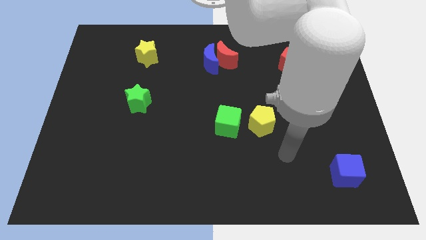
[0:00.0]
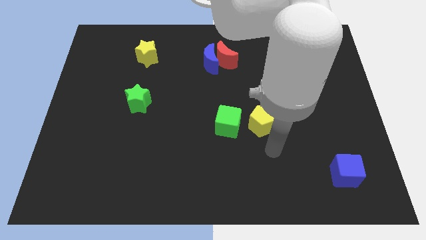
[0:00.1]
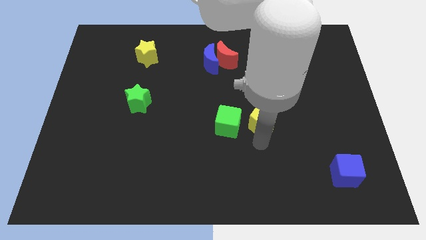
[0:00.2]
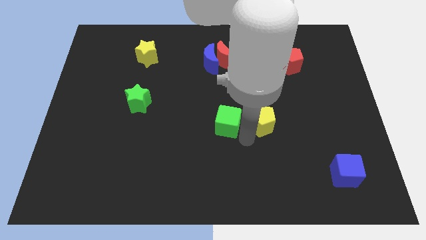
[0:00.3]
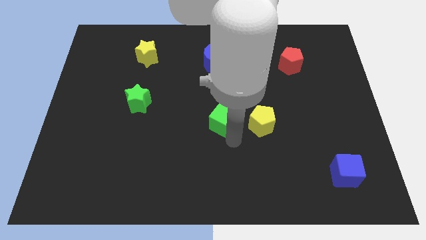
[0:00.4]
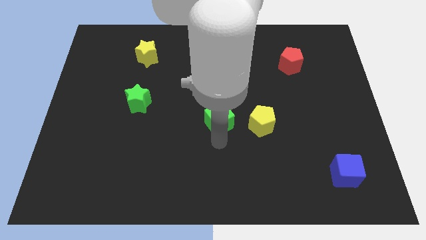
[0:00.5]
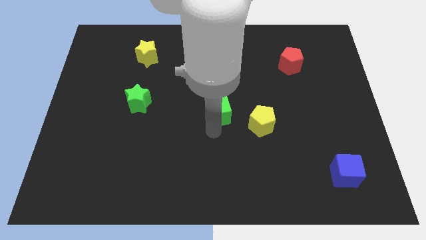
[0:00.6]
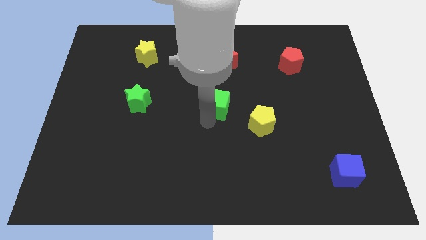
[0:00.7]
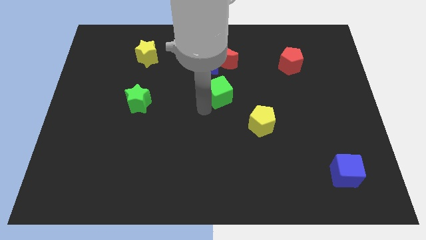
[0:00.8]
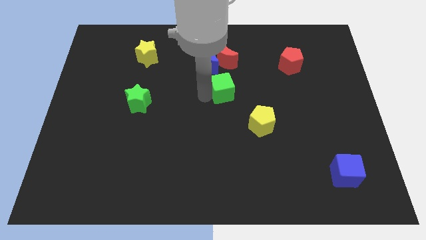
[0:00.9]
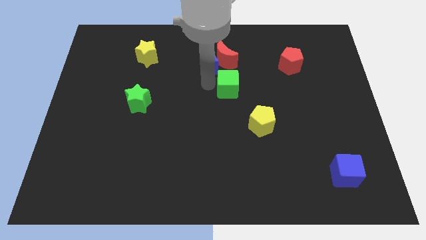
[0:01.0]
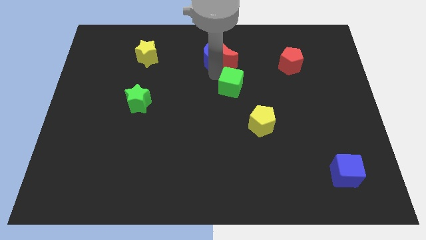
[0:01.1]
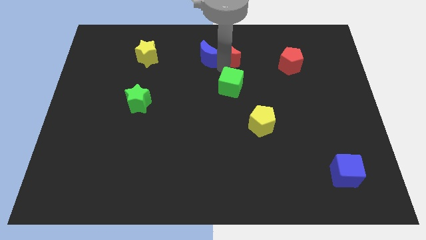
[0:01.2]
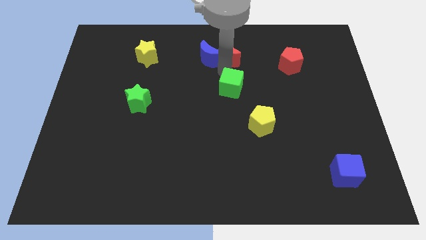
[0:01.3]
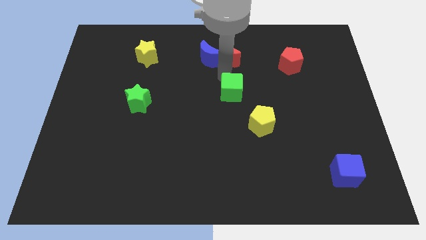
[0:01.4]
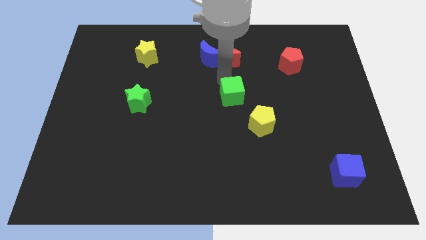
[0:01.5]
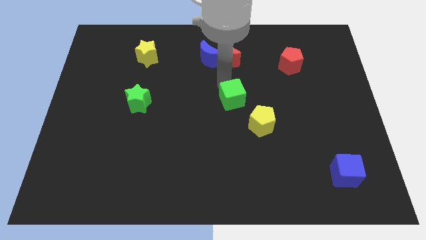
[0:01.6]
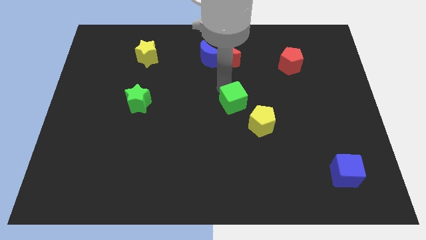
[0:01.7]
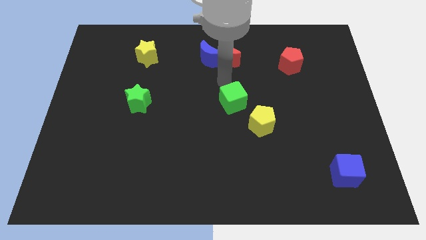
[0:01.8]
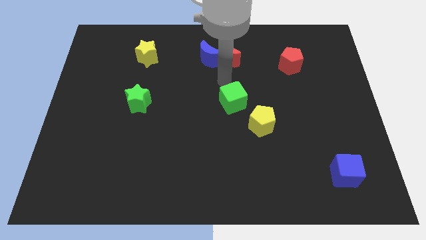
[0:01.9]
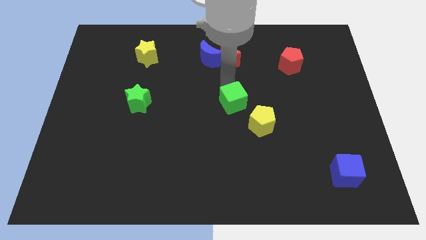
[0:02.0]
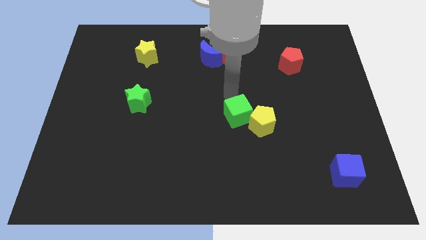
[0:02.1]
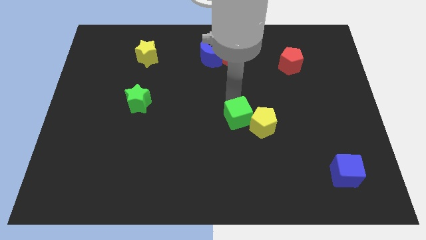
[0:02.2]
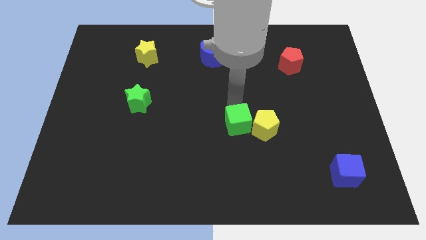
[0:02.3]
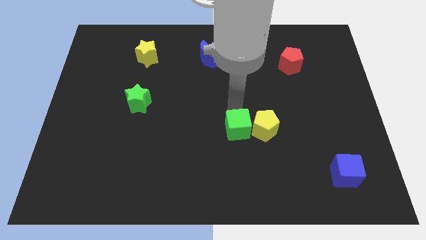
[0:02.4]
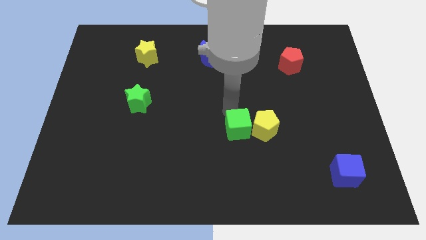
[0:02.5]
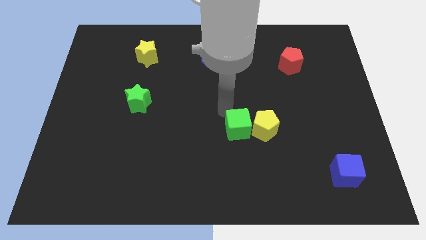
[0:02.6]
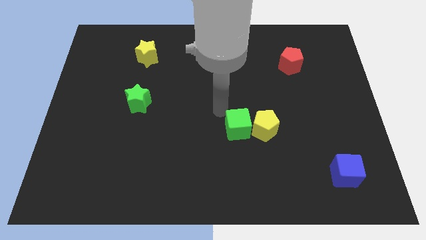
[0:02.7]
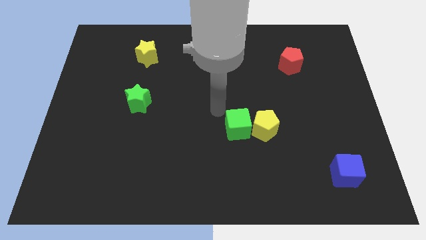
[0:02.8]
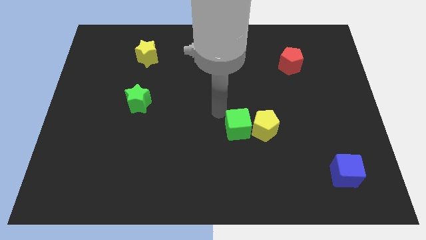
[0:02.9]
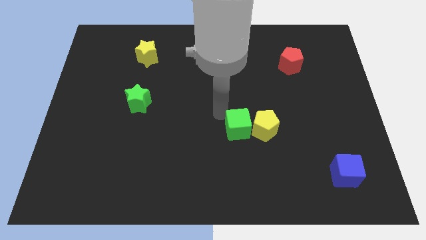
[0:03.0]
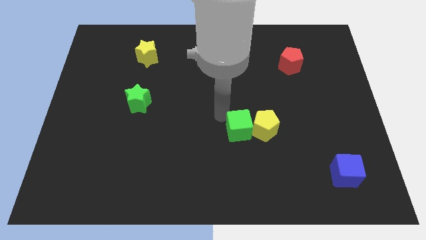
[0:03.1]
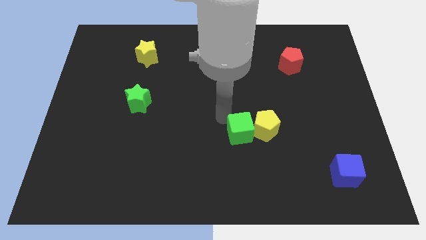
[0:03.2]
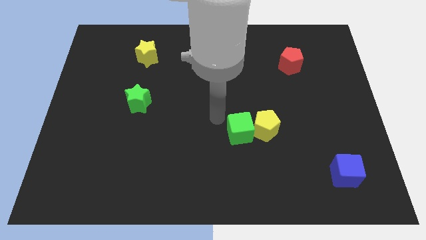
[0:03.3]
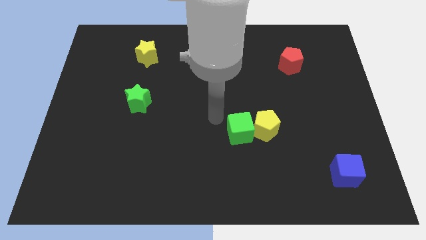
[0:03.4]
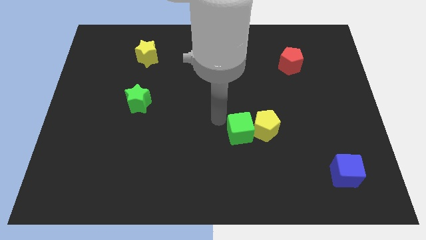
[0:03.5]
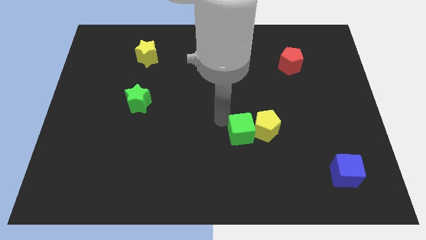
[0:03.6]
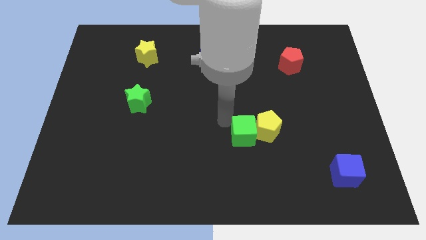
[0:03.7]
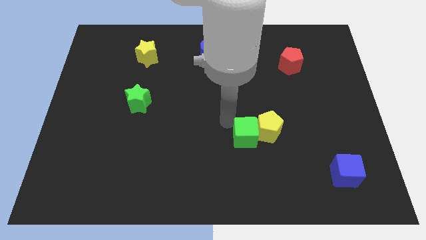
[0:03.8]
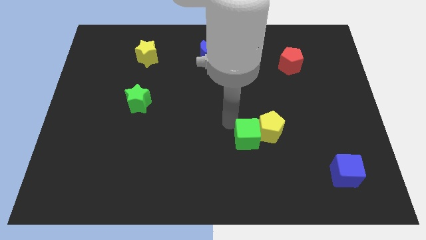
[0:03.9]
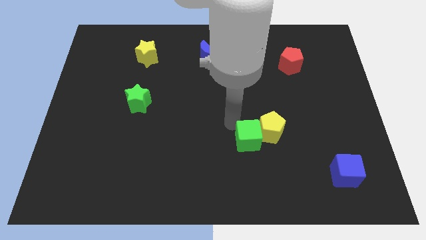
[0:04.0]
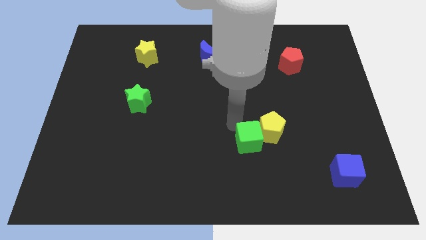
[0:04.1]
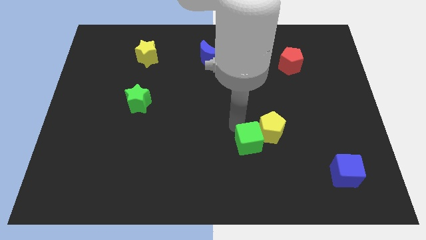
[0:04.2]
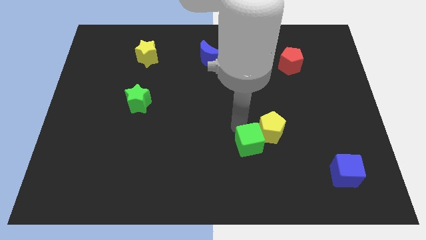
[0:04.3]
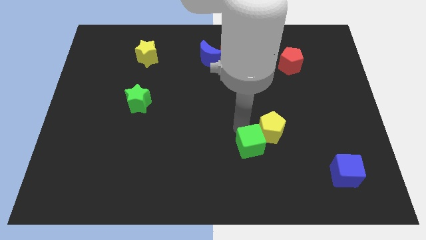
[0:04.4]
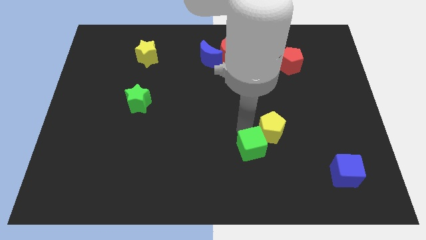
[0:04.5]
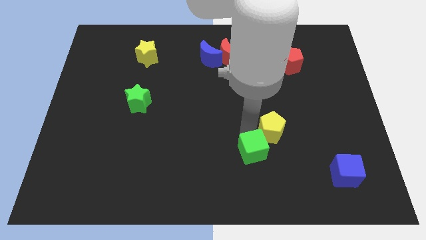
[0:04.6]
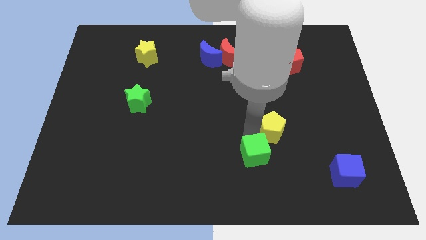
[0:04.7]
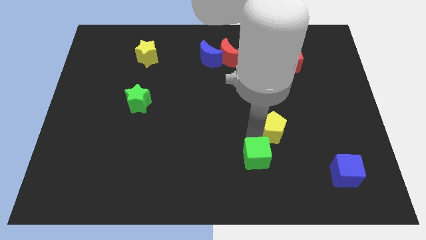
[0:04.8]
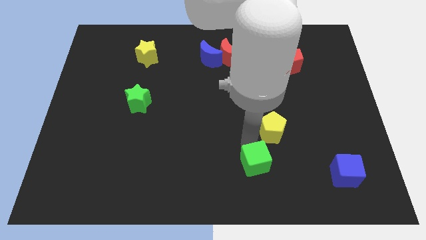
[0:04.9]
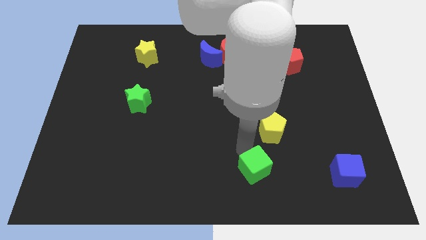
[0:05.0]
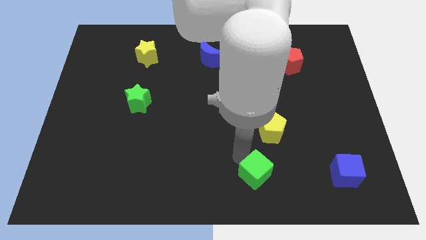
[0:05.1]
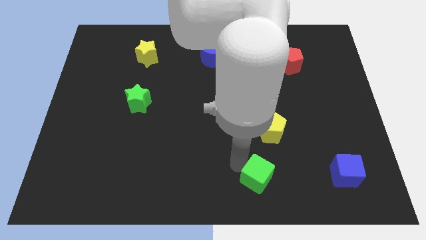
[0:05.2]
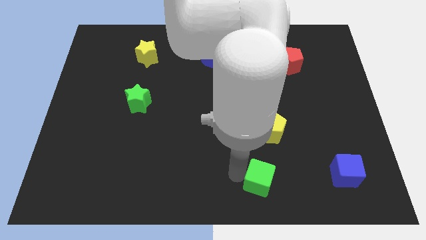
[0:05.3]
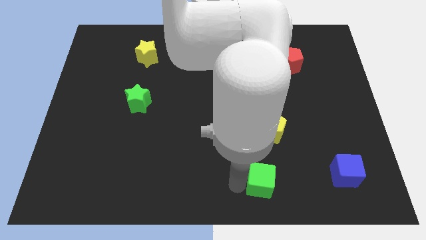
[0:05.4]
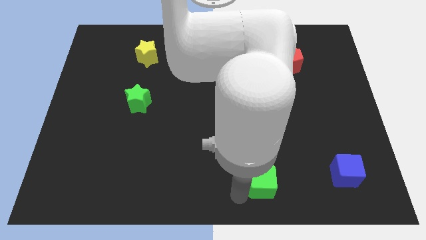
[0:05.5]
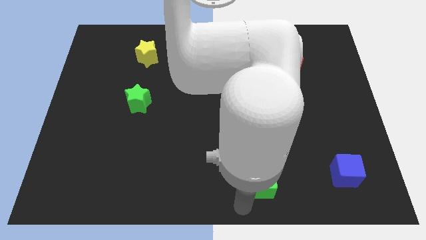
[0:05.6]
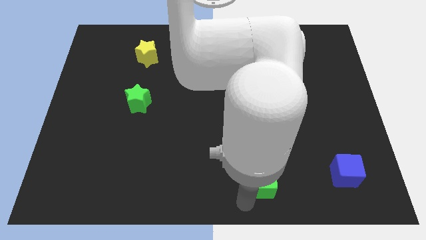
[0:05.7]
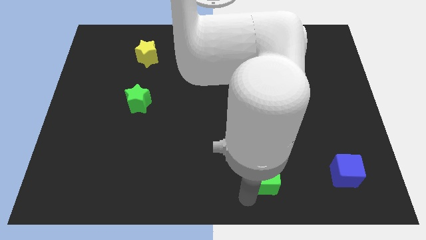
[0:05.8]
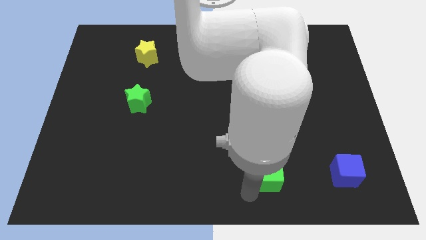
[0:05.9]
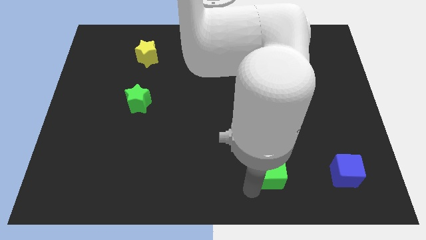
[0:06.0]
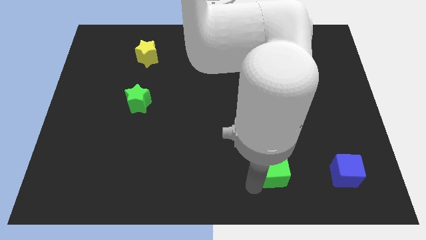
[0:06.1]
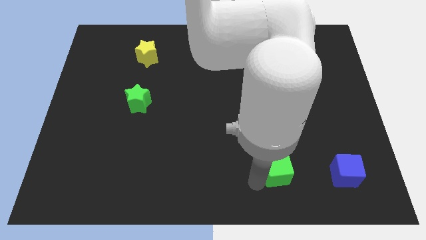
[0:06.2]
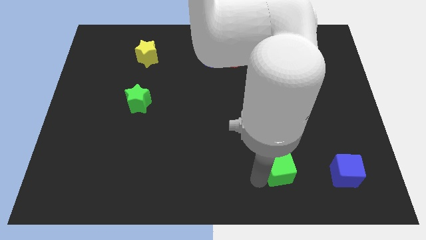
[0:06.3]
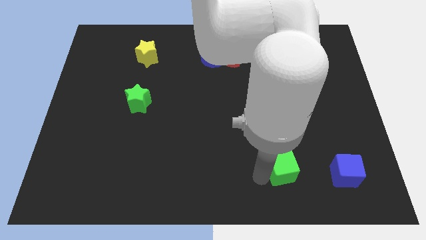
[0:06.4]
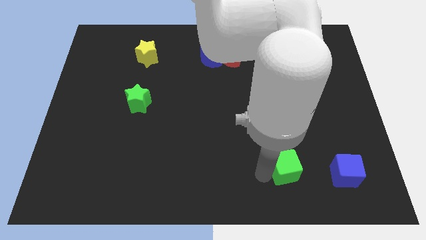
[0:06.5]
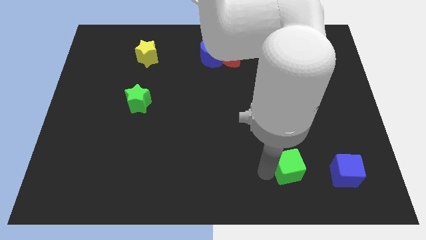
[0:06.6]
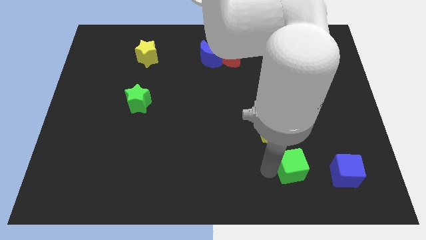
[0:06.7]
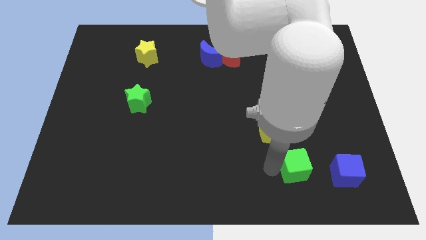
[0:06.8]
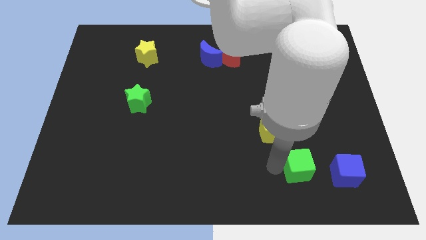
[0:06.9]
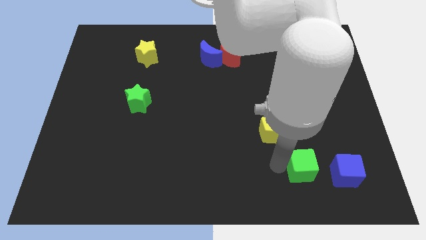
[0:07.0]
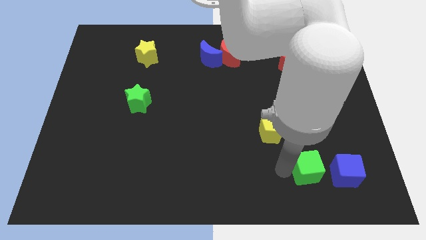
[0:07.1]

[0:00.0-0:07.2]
slide the green cube to the top left of the blue cube
